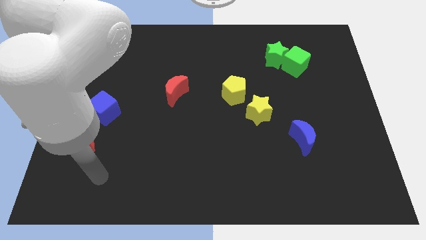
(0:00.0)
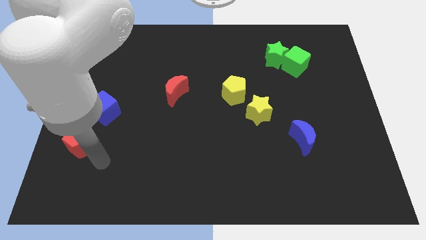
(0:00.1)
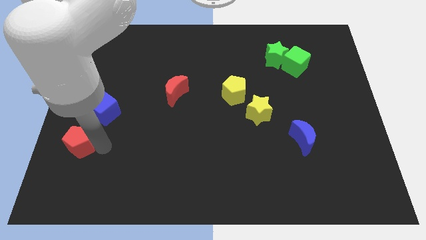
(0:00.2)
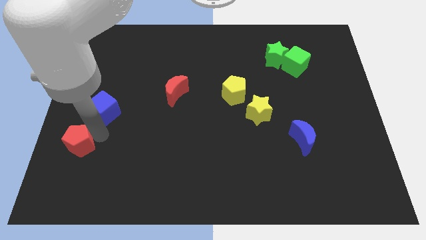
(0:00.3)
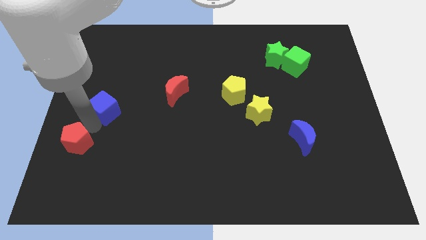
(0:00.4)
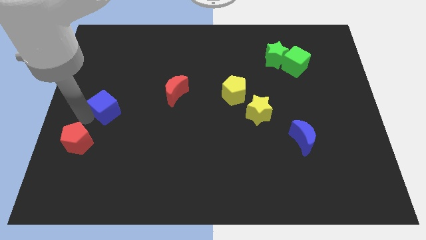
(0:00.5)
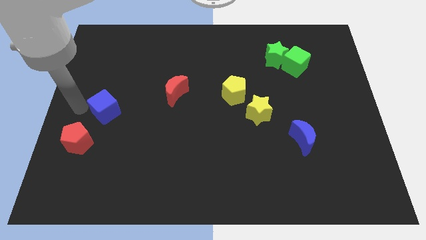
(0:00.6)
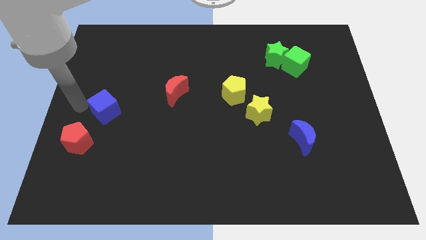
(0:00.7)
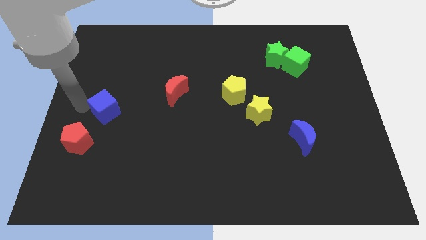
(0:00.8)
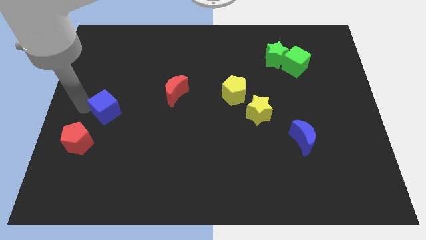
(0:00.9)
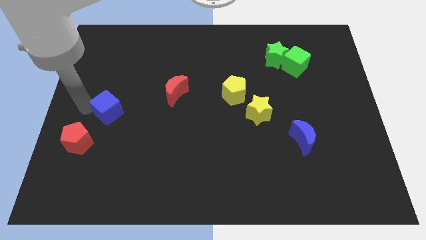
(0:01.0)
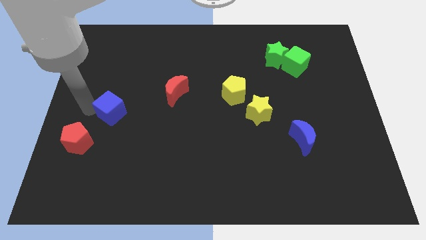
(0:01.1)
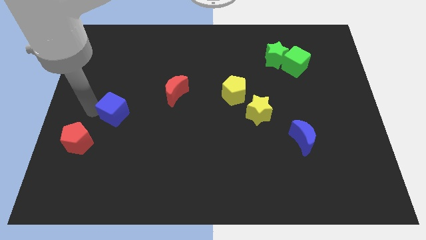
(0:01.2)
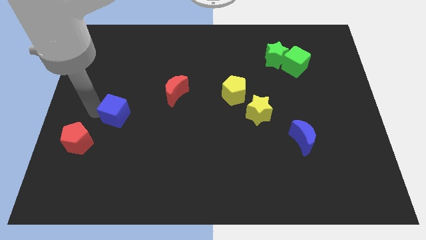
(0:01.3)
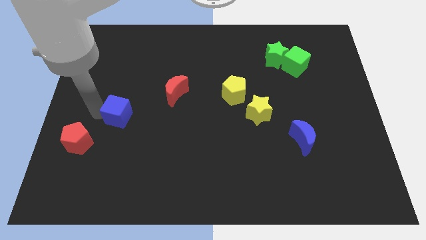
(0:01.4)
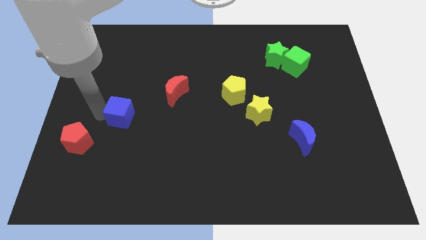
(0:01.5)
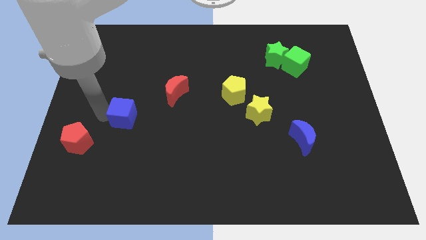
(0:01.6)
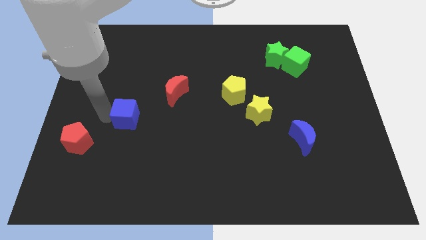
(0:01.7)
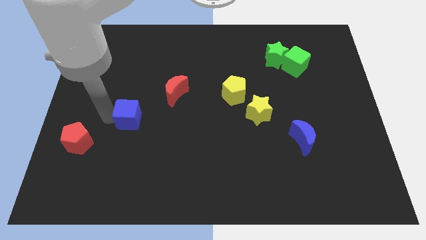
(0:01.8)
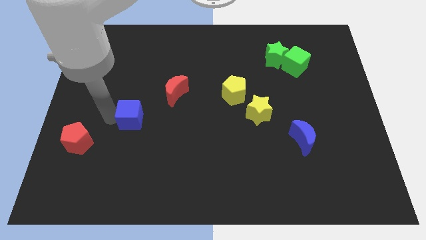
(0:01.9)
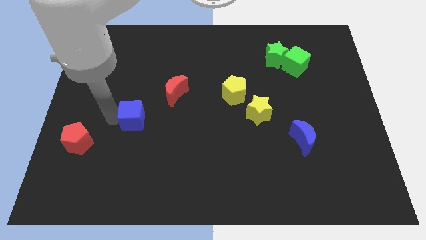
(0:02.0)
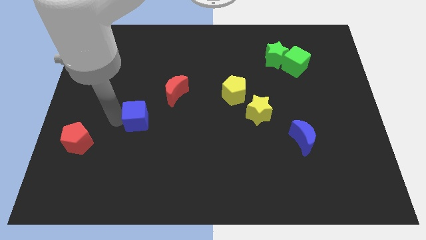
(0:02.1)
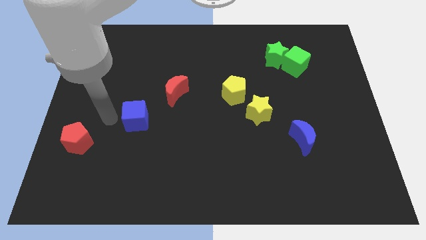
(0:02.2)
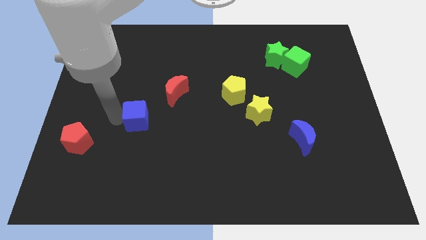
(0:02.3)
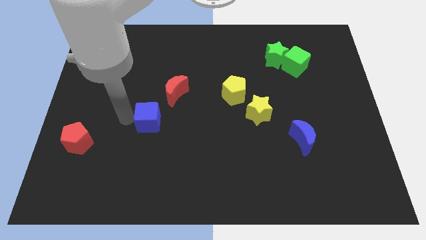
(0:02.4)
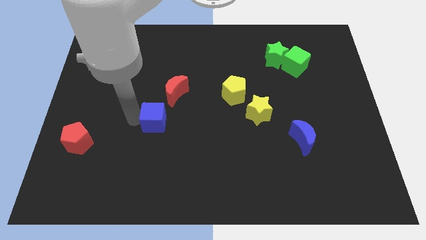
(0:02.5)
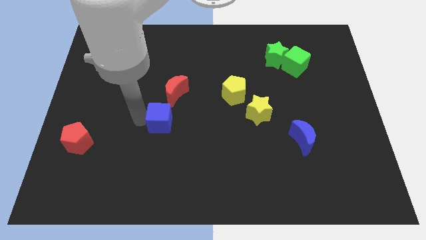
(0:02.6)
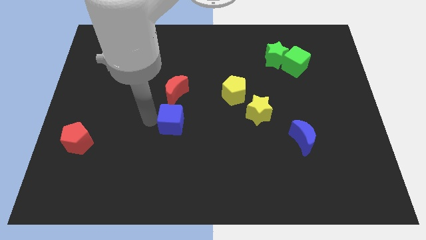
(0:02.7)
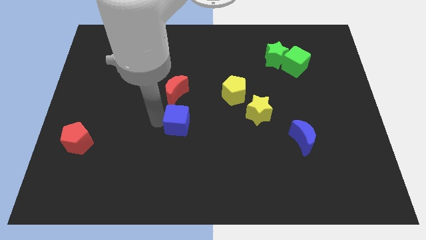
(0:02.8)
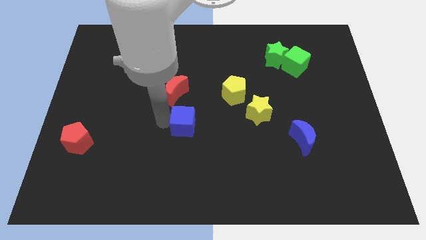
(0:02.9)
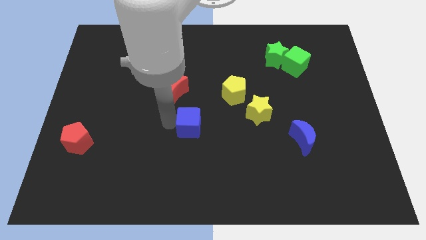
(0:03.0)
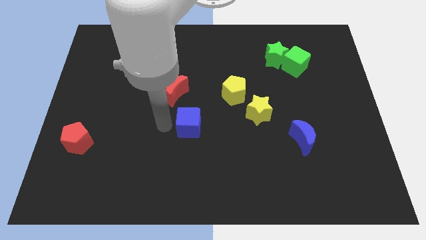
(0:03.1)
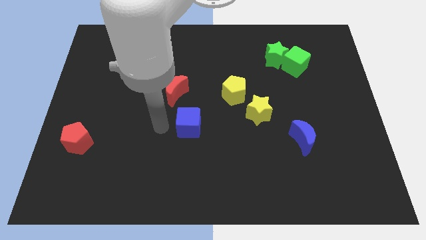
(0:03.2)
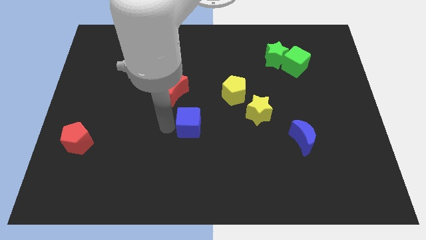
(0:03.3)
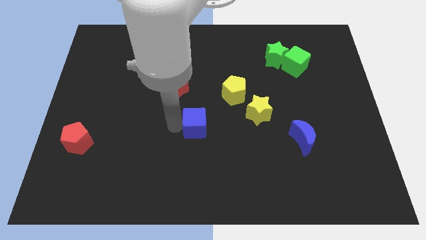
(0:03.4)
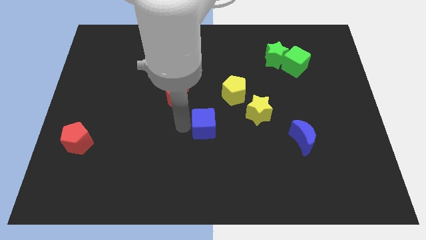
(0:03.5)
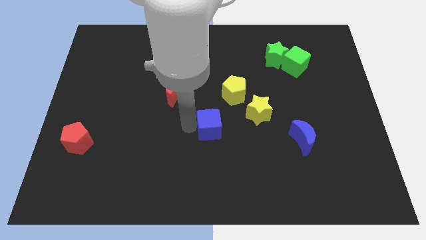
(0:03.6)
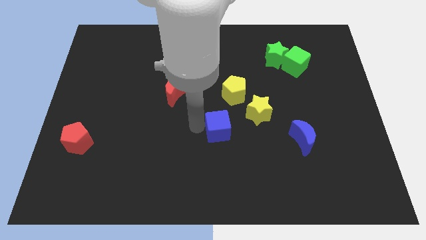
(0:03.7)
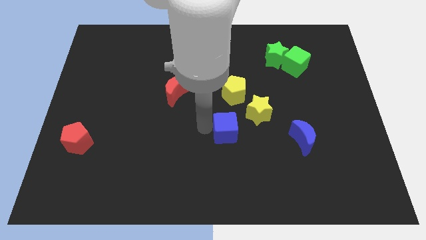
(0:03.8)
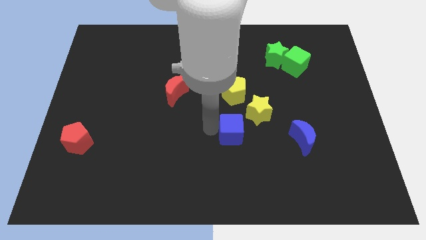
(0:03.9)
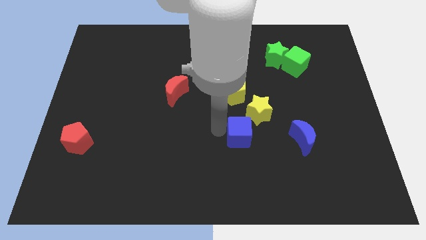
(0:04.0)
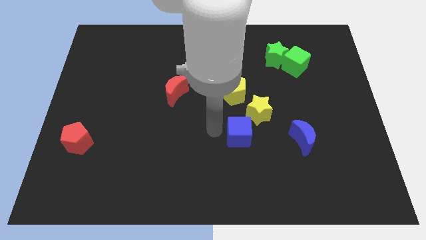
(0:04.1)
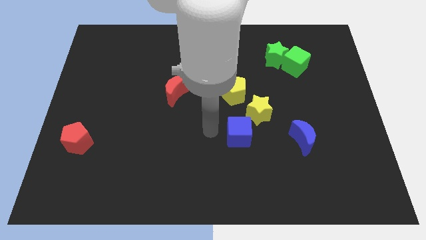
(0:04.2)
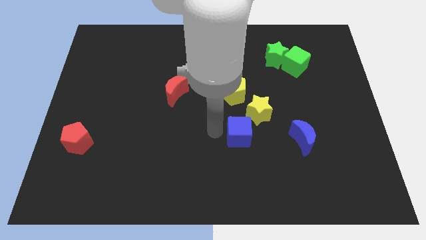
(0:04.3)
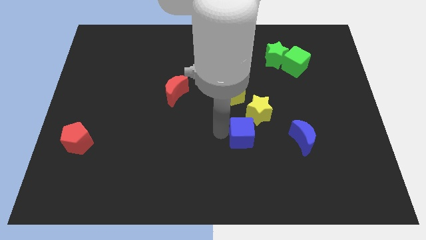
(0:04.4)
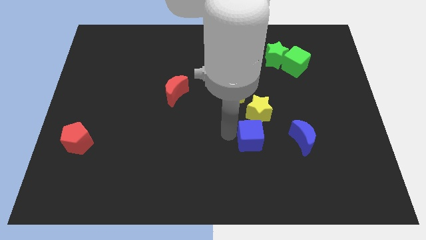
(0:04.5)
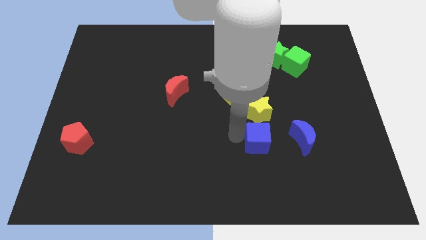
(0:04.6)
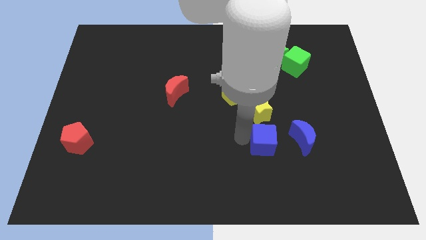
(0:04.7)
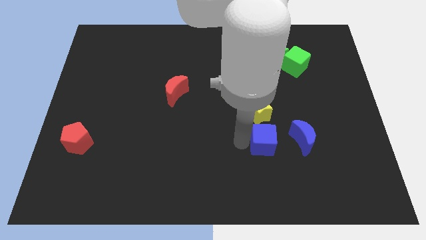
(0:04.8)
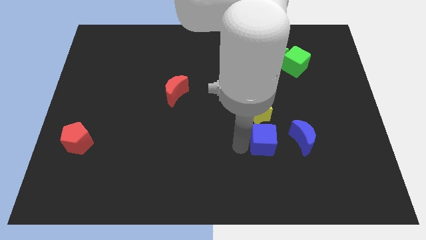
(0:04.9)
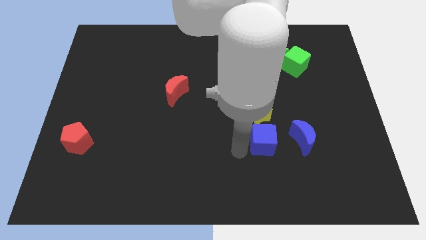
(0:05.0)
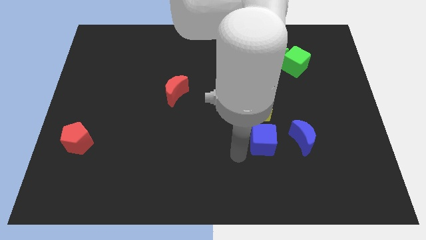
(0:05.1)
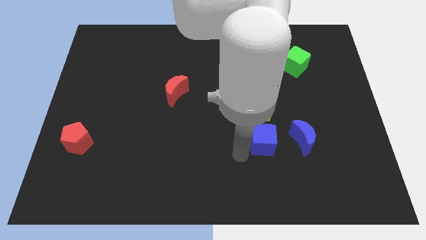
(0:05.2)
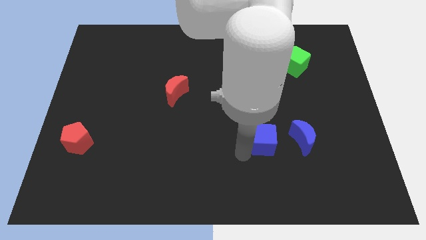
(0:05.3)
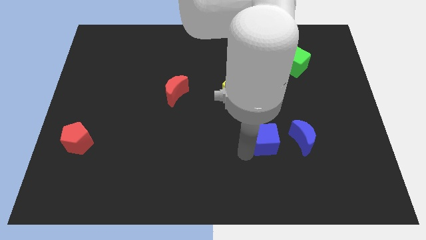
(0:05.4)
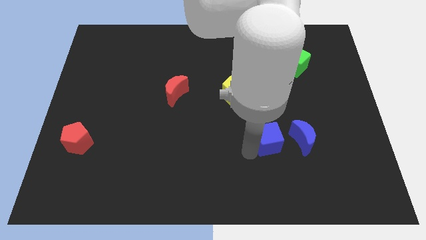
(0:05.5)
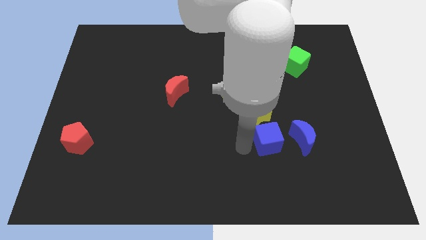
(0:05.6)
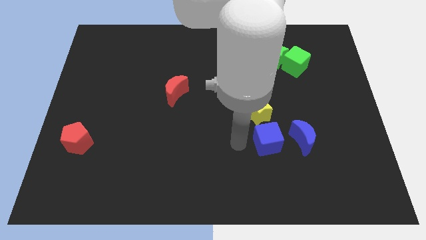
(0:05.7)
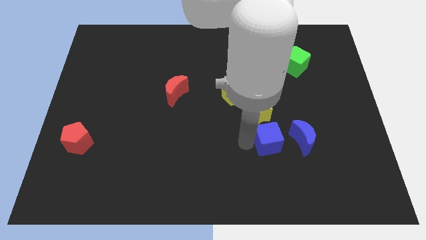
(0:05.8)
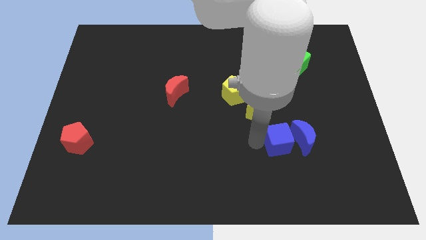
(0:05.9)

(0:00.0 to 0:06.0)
put the blue cube towards the blue moon

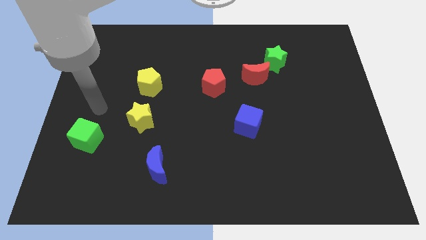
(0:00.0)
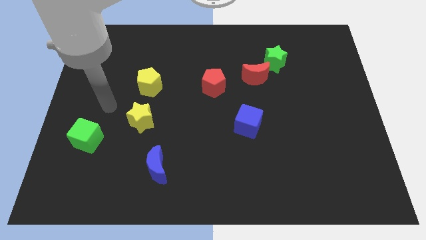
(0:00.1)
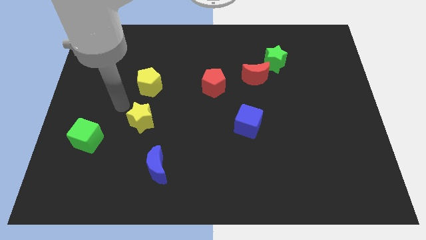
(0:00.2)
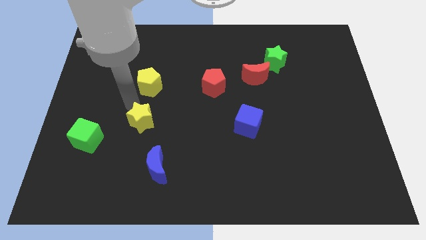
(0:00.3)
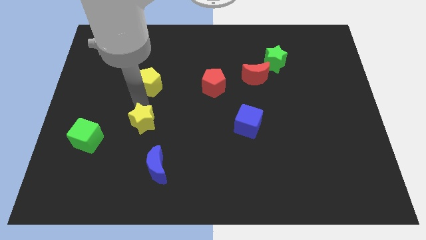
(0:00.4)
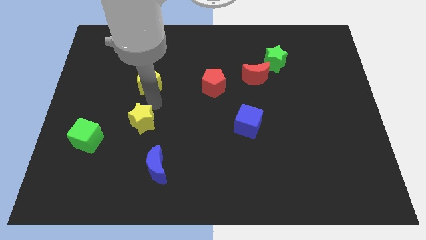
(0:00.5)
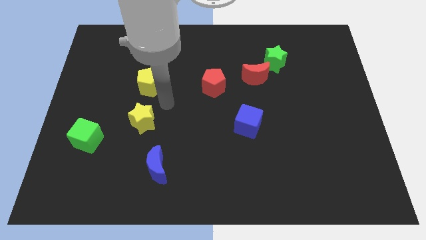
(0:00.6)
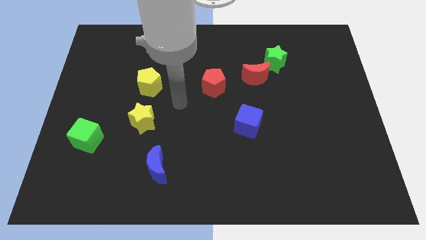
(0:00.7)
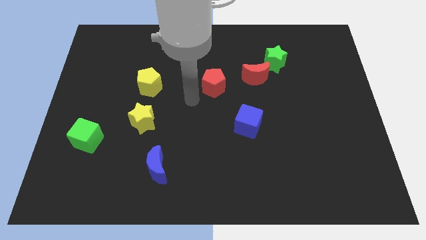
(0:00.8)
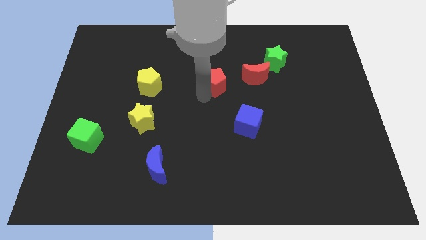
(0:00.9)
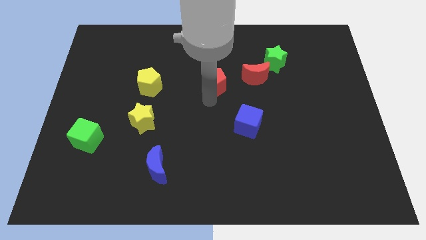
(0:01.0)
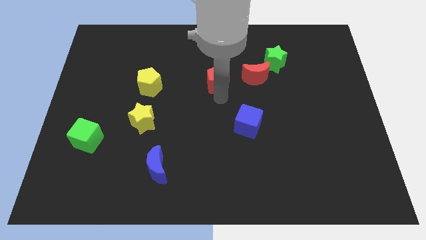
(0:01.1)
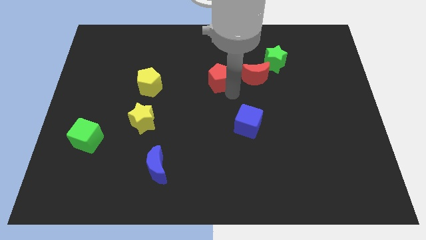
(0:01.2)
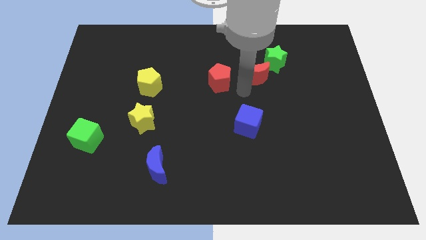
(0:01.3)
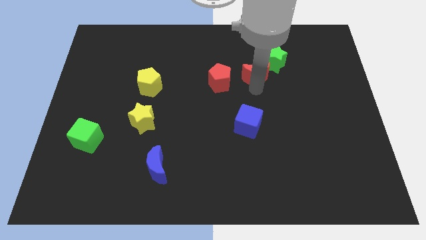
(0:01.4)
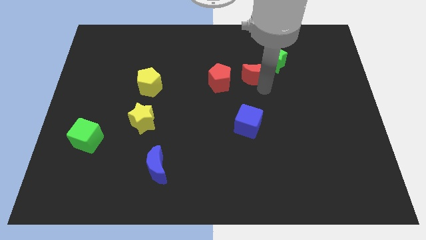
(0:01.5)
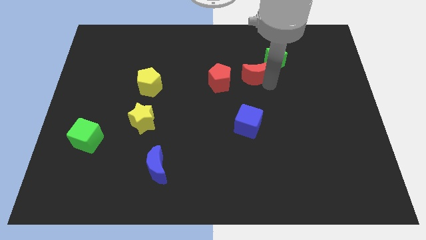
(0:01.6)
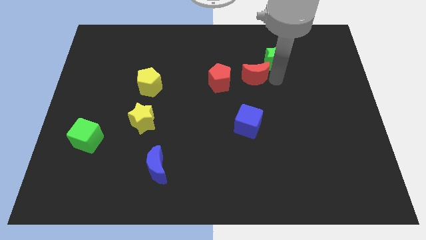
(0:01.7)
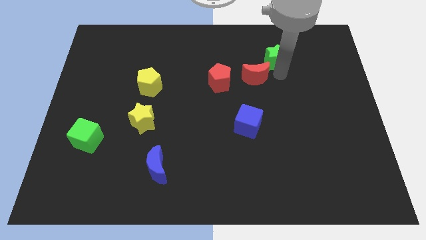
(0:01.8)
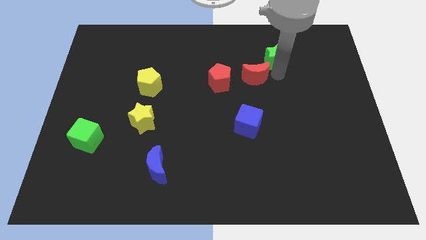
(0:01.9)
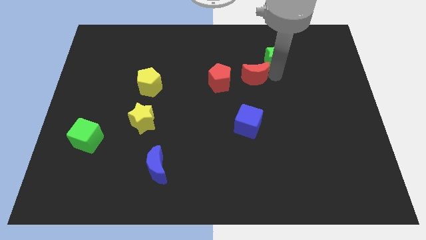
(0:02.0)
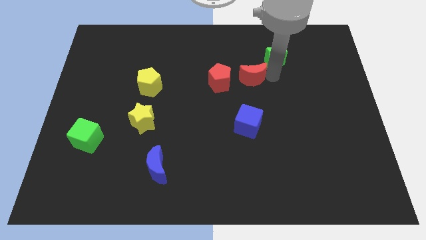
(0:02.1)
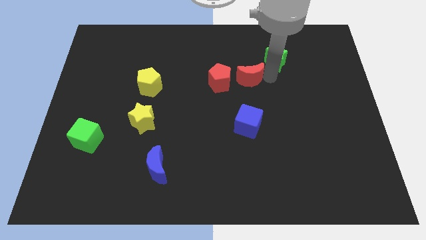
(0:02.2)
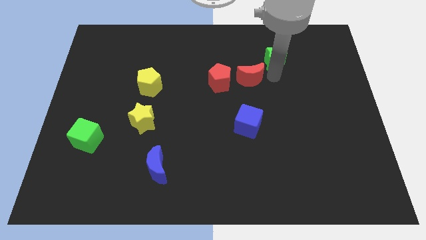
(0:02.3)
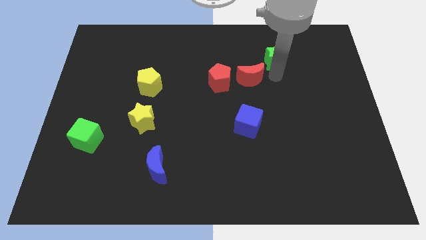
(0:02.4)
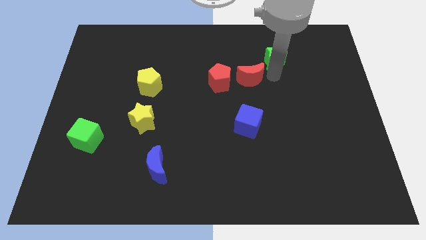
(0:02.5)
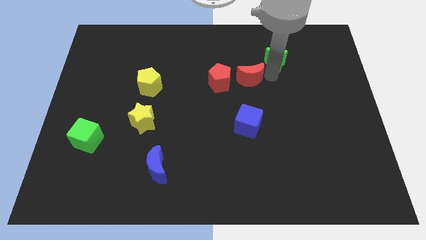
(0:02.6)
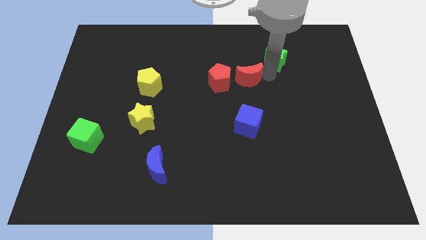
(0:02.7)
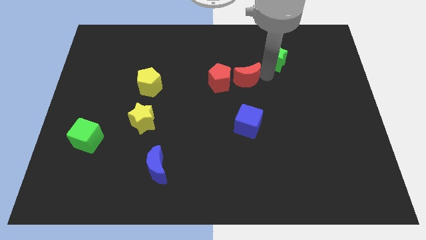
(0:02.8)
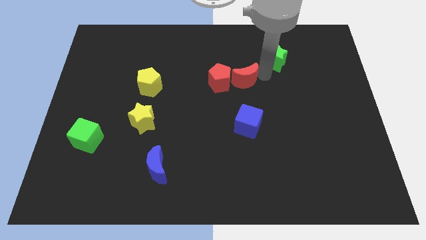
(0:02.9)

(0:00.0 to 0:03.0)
put the red moon next to the red pentagon
